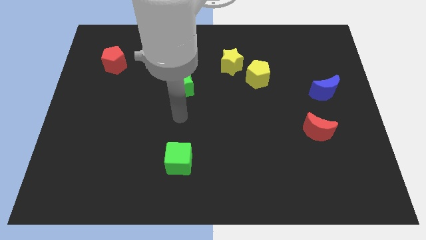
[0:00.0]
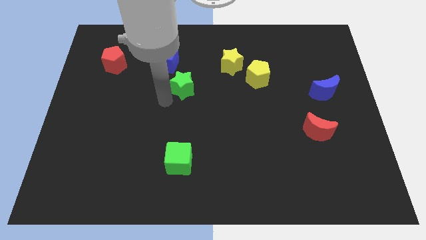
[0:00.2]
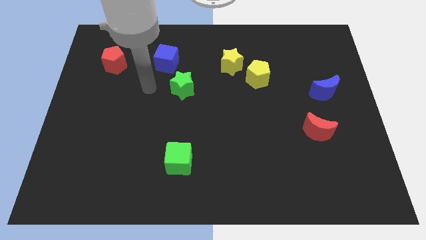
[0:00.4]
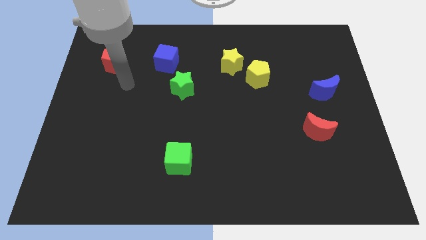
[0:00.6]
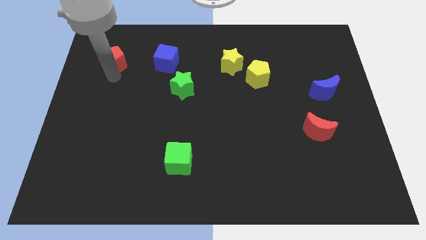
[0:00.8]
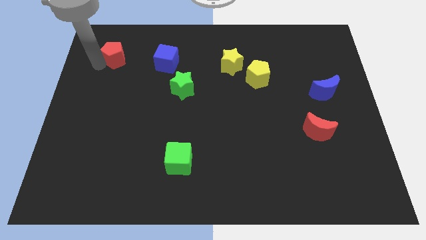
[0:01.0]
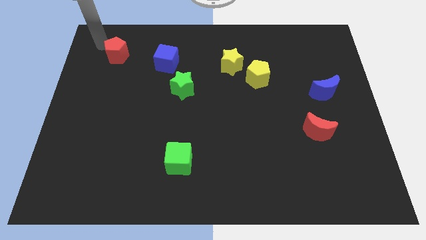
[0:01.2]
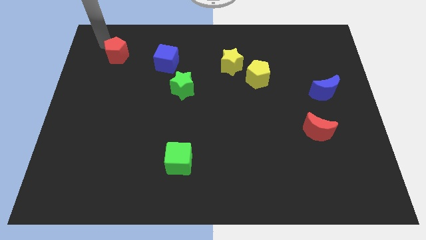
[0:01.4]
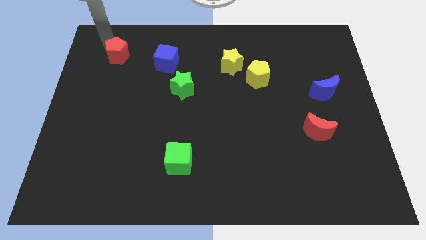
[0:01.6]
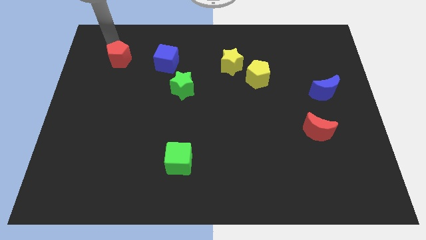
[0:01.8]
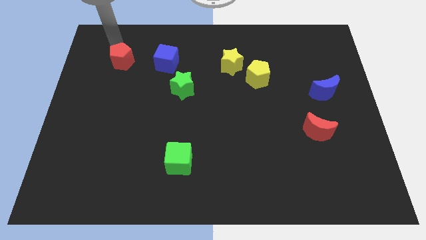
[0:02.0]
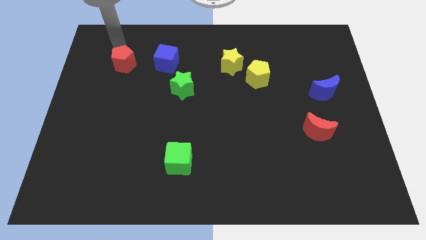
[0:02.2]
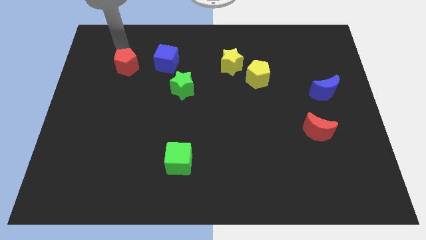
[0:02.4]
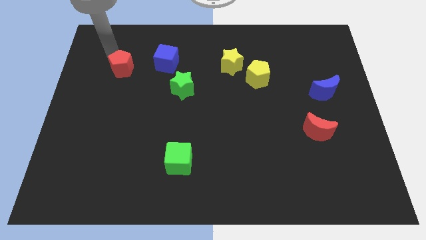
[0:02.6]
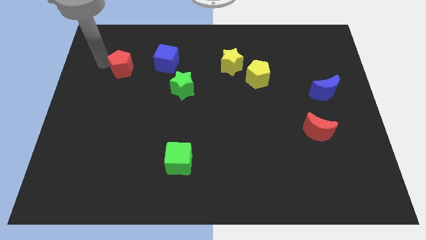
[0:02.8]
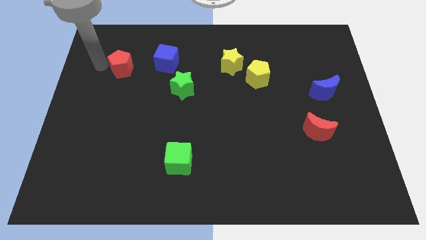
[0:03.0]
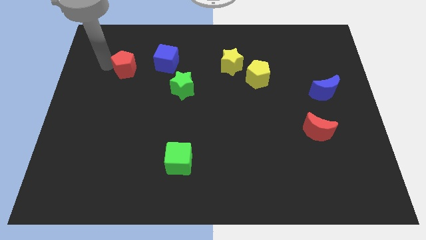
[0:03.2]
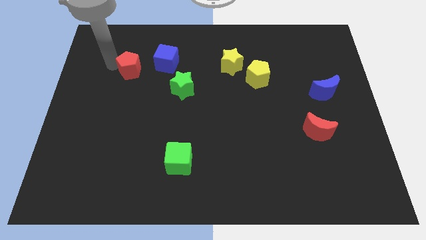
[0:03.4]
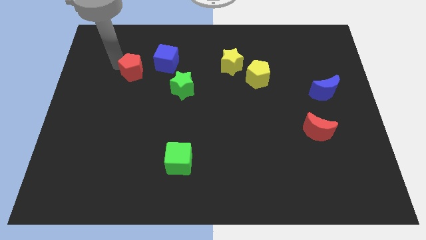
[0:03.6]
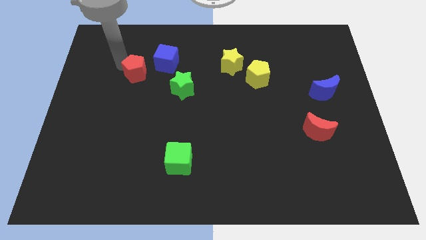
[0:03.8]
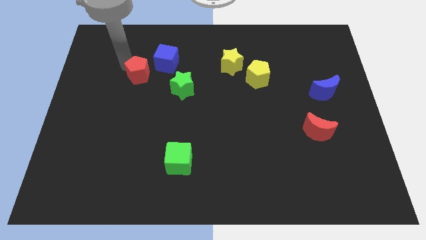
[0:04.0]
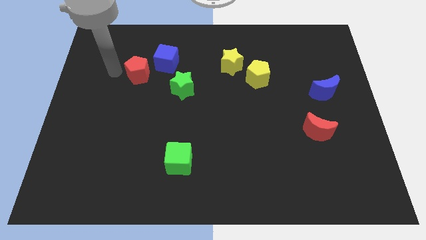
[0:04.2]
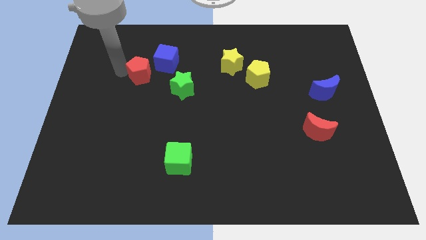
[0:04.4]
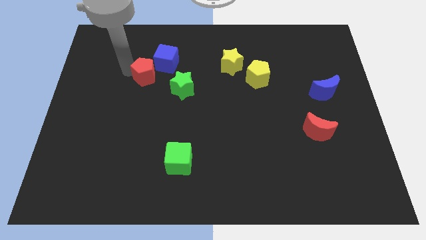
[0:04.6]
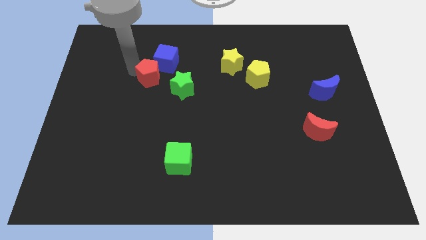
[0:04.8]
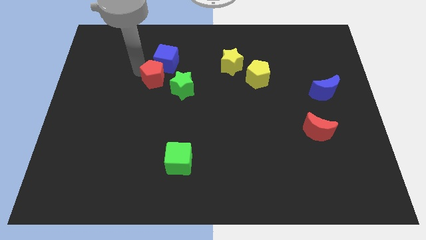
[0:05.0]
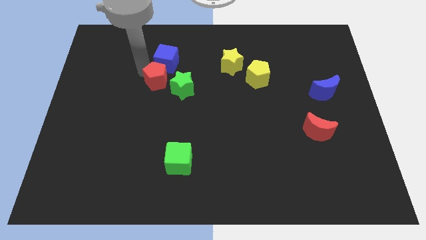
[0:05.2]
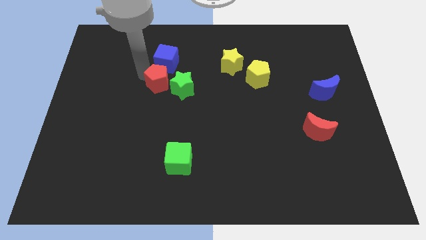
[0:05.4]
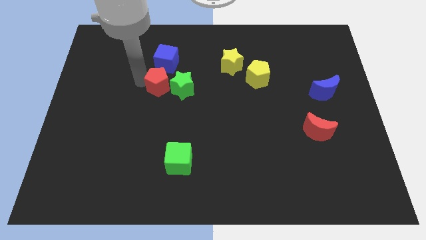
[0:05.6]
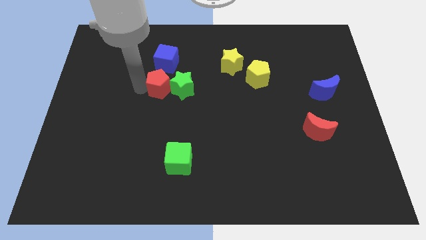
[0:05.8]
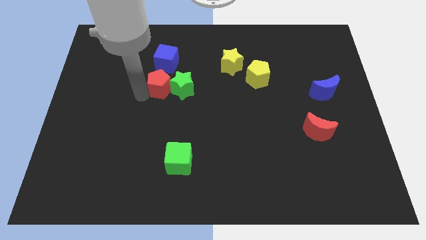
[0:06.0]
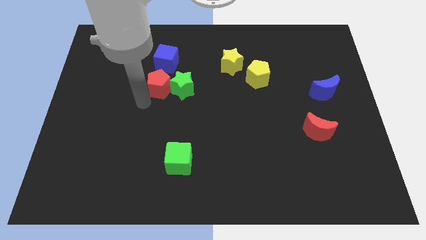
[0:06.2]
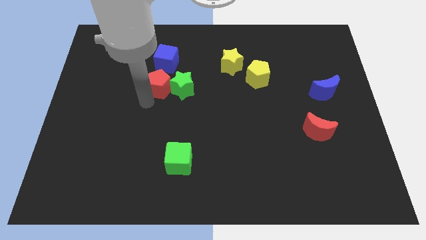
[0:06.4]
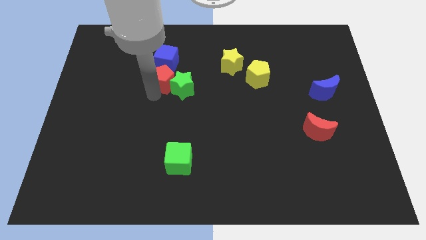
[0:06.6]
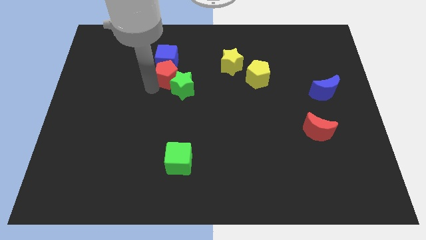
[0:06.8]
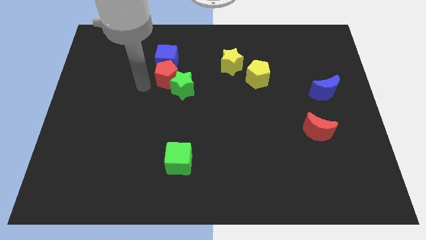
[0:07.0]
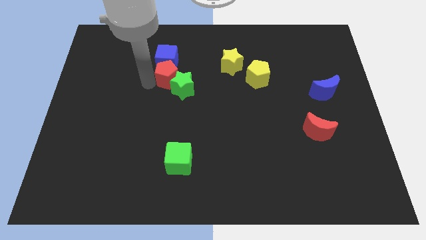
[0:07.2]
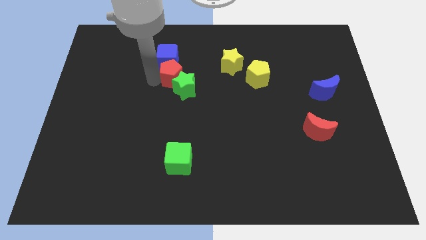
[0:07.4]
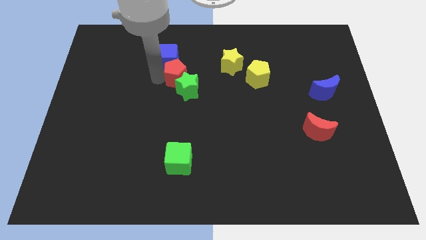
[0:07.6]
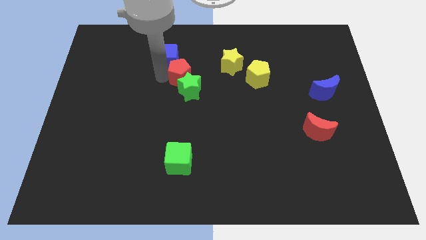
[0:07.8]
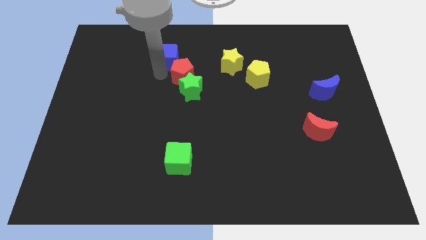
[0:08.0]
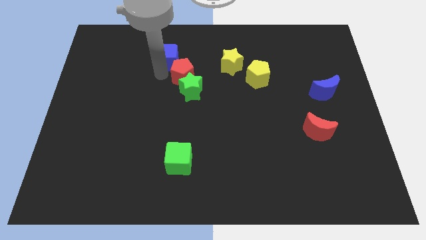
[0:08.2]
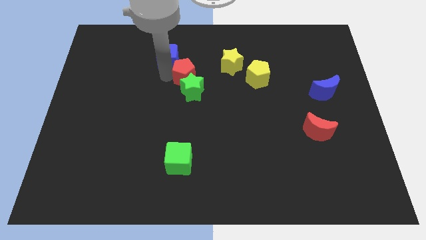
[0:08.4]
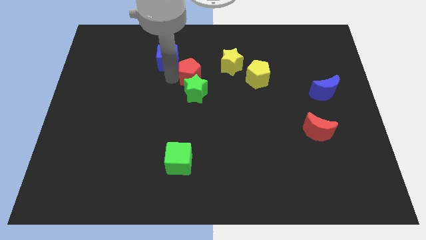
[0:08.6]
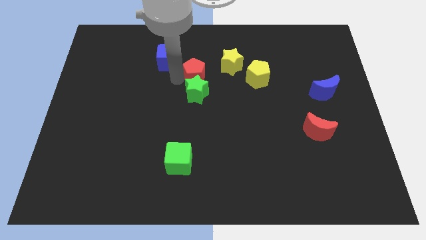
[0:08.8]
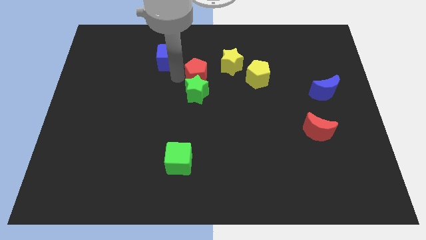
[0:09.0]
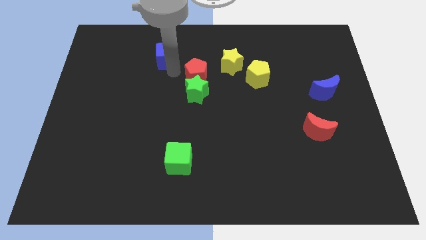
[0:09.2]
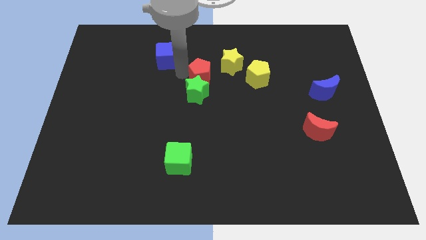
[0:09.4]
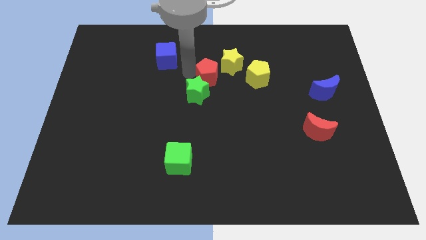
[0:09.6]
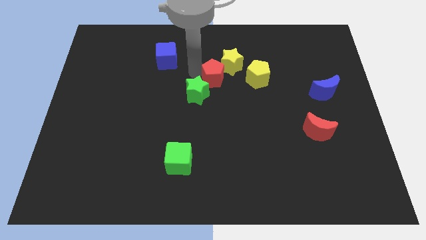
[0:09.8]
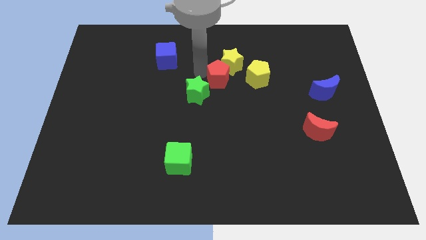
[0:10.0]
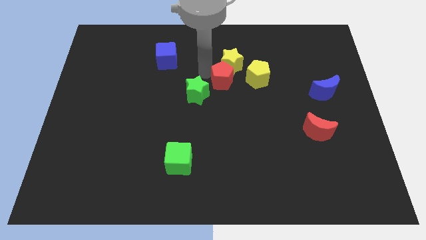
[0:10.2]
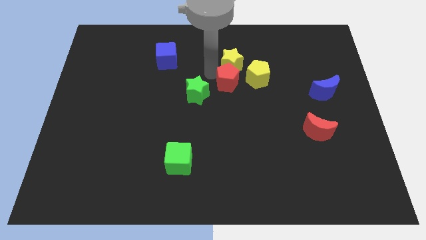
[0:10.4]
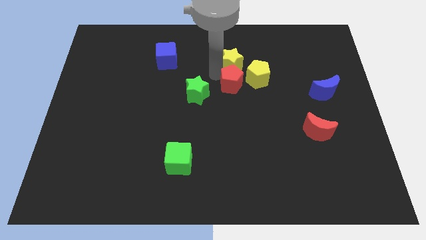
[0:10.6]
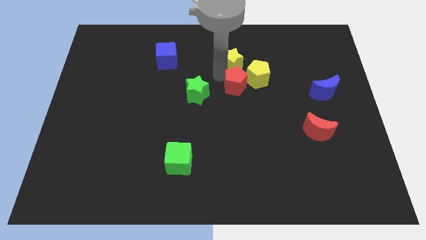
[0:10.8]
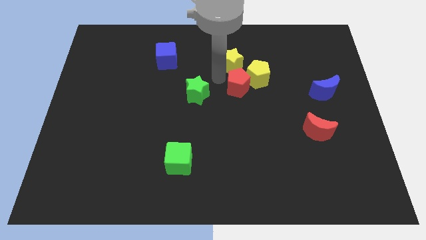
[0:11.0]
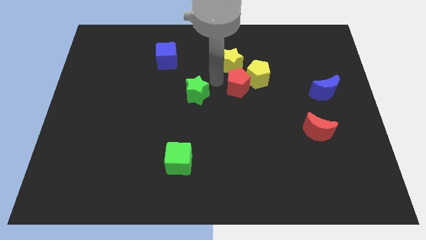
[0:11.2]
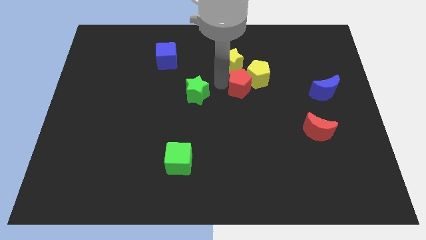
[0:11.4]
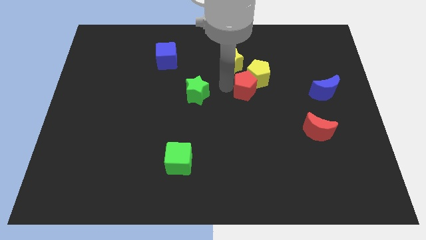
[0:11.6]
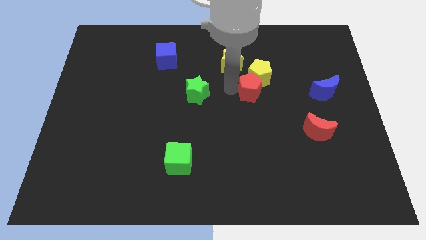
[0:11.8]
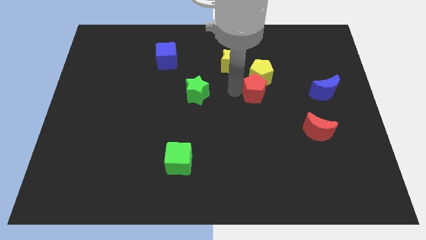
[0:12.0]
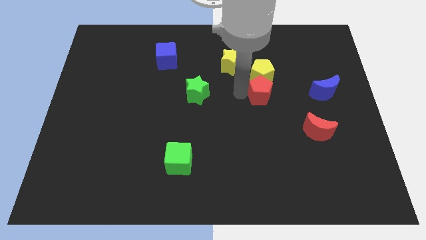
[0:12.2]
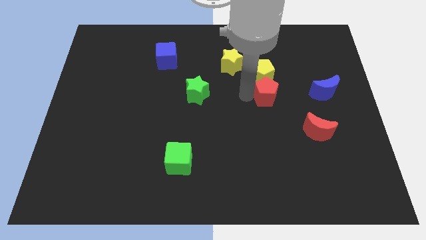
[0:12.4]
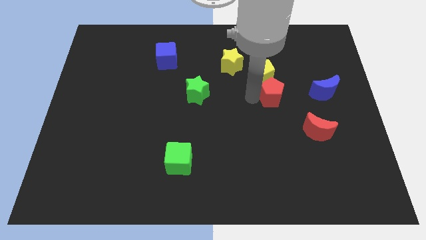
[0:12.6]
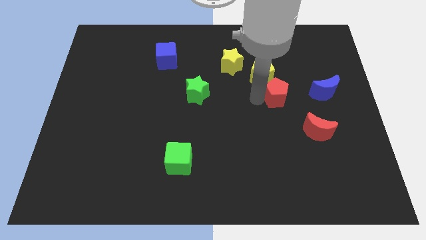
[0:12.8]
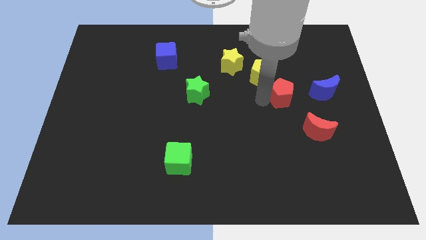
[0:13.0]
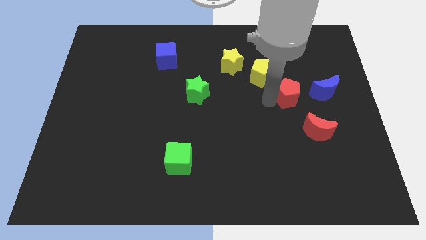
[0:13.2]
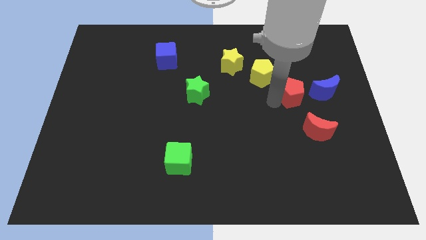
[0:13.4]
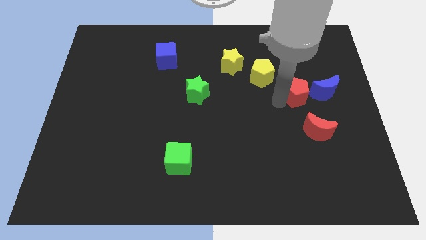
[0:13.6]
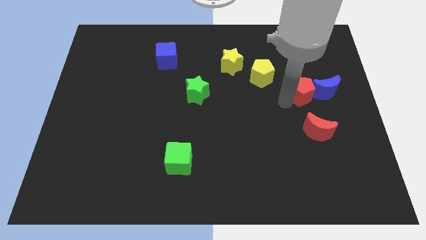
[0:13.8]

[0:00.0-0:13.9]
move the red pentagon towards the blue moon

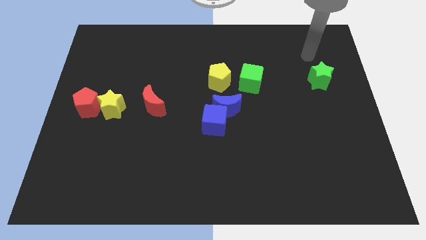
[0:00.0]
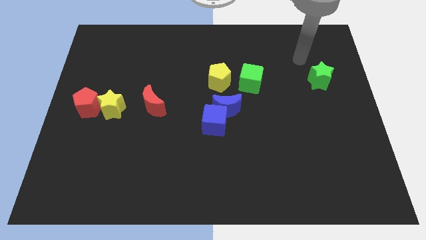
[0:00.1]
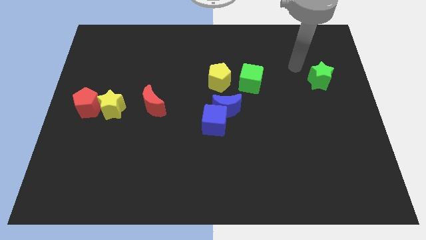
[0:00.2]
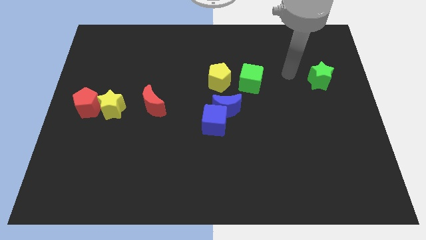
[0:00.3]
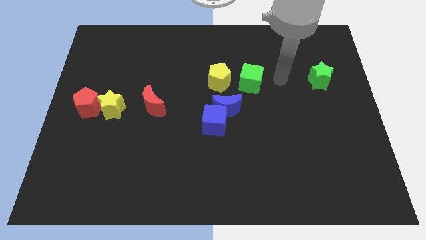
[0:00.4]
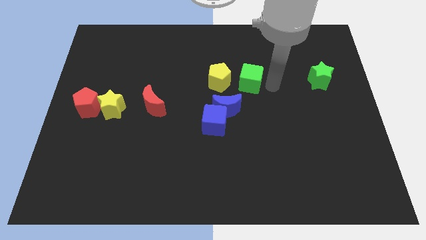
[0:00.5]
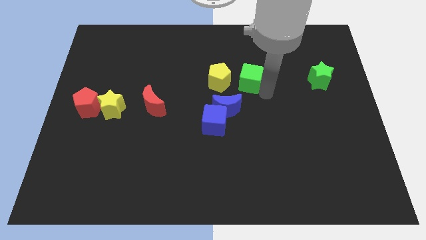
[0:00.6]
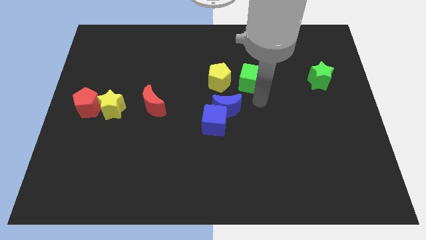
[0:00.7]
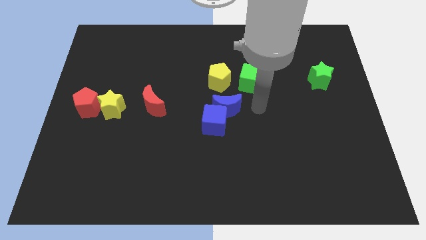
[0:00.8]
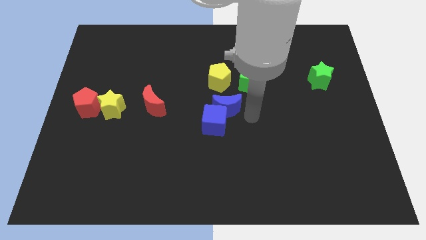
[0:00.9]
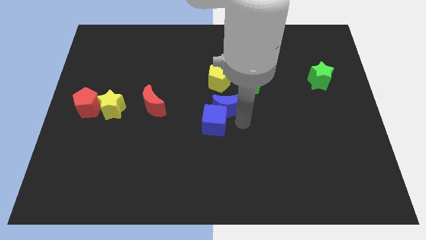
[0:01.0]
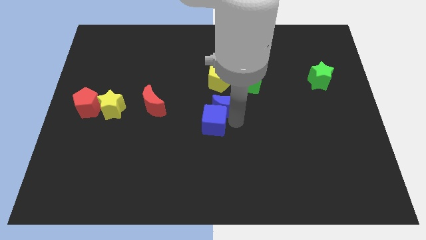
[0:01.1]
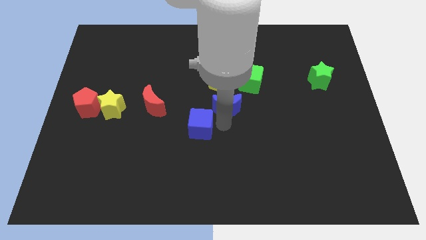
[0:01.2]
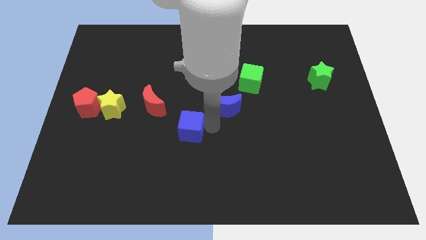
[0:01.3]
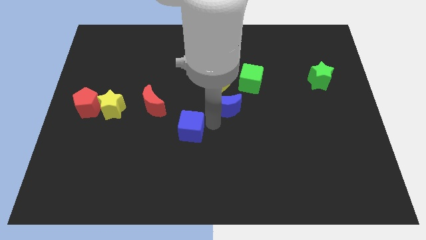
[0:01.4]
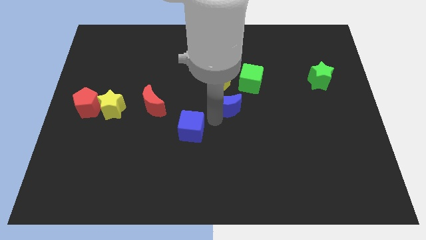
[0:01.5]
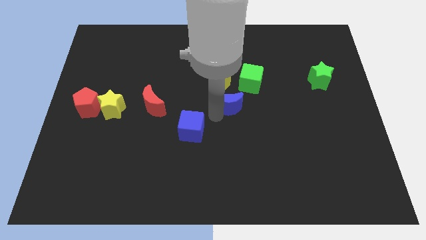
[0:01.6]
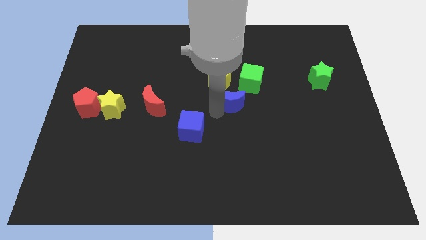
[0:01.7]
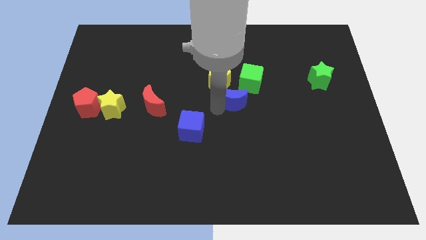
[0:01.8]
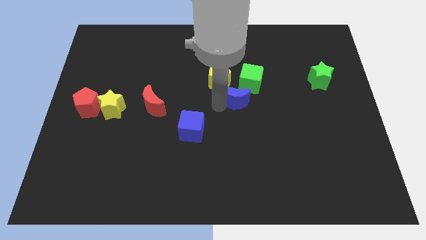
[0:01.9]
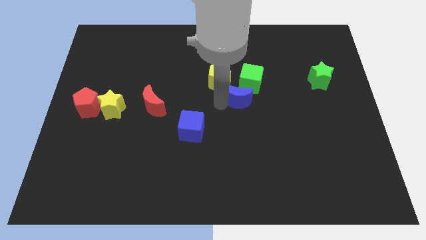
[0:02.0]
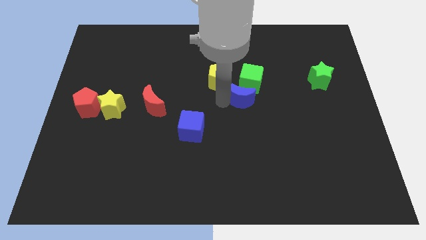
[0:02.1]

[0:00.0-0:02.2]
slide the blue moon next to the green cube
